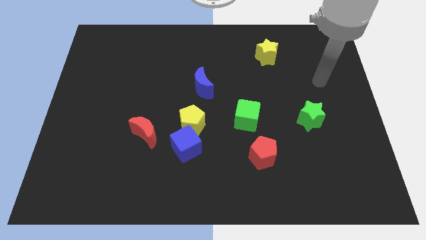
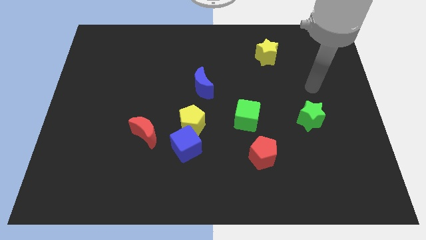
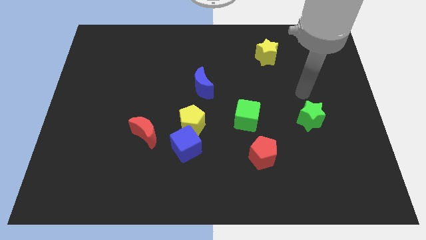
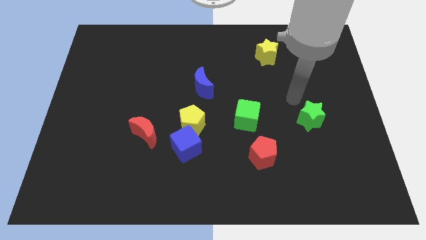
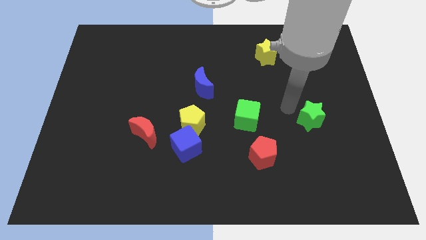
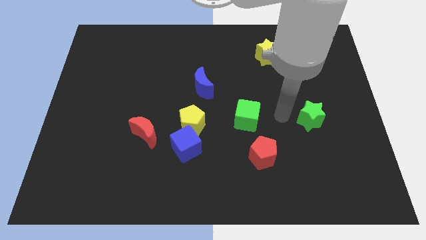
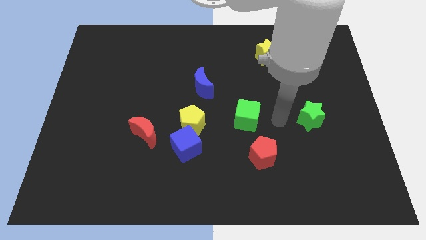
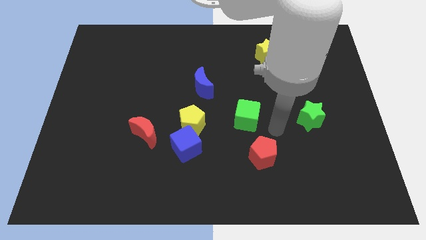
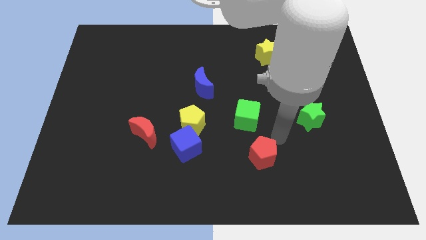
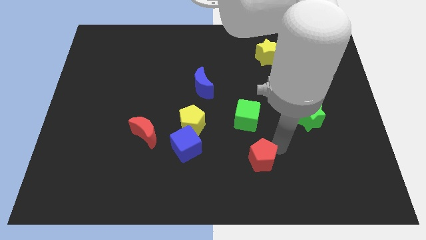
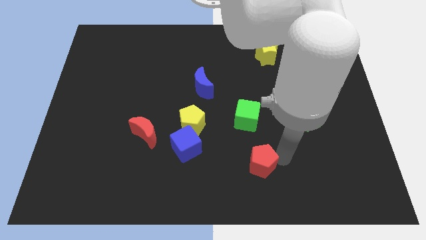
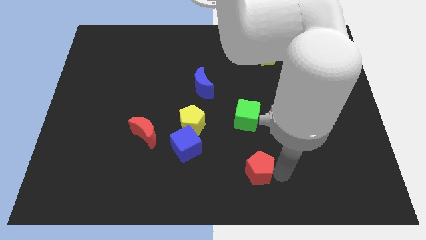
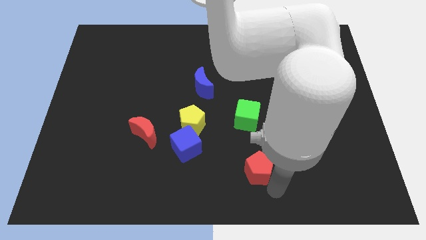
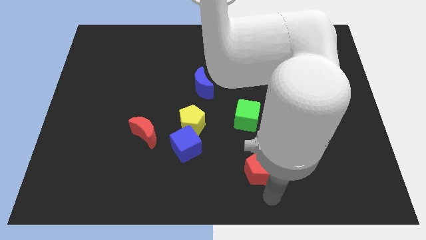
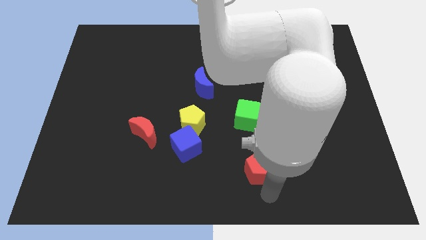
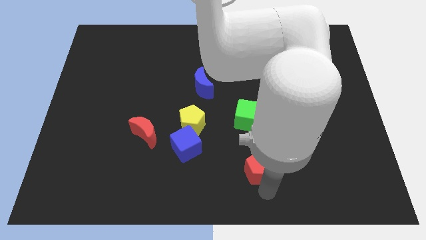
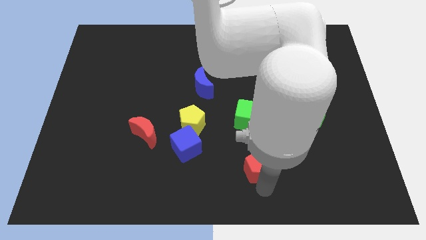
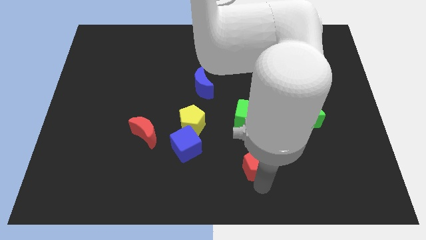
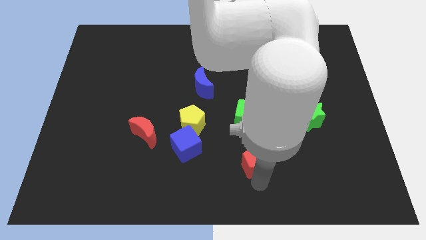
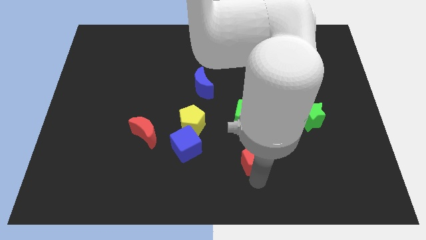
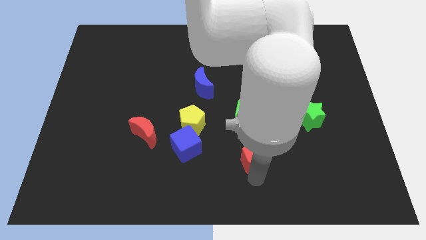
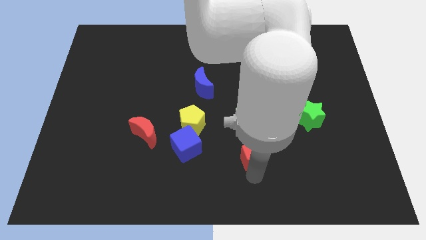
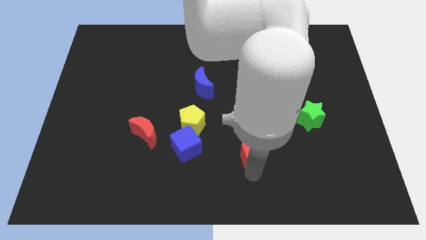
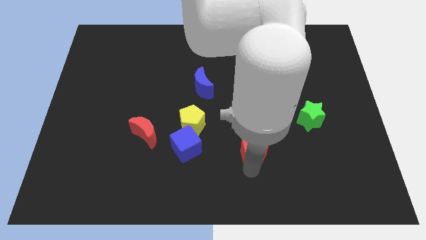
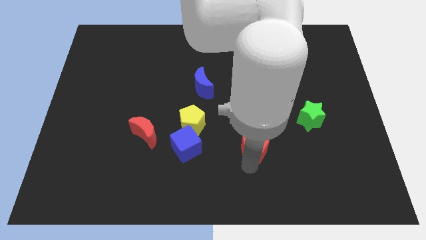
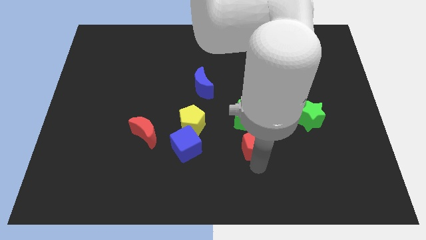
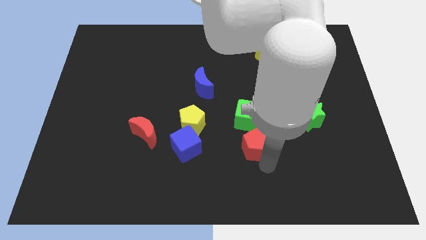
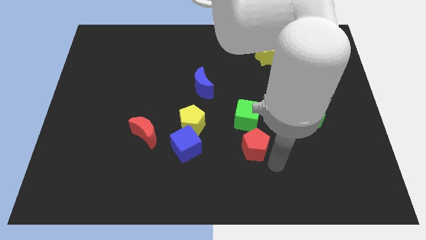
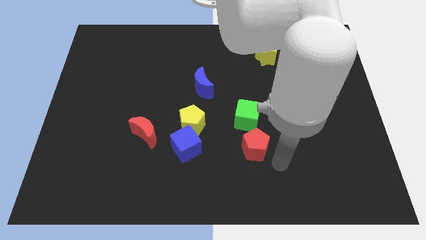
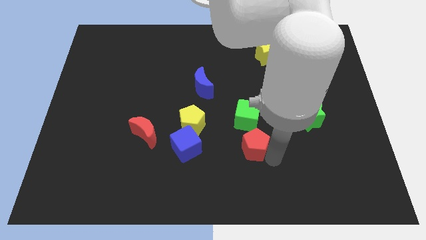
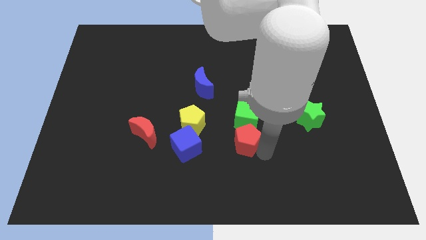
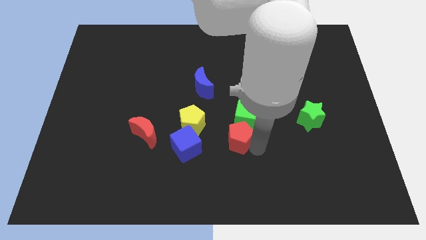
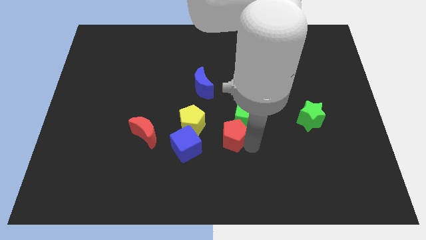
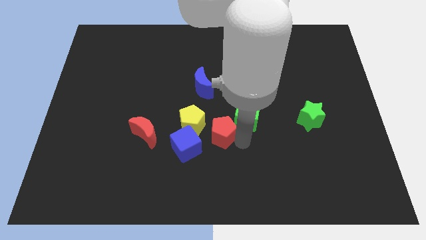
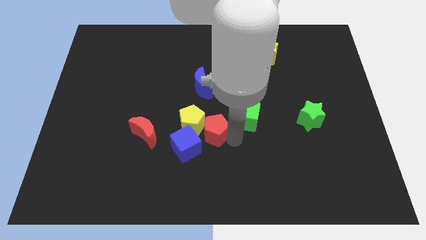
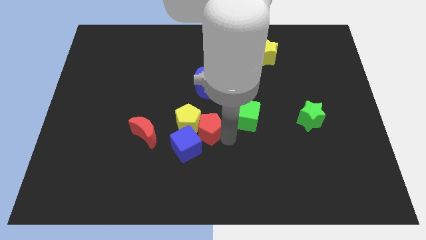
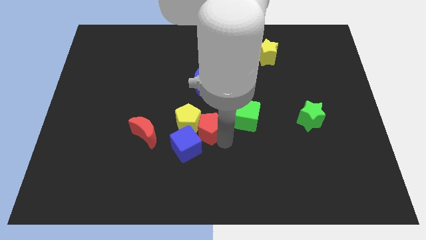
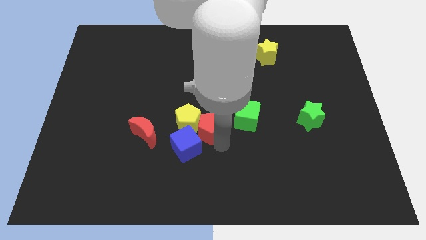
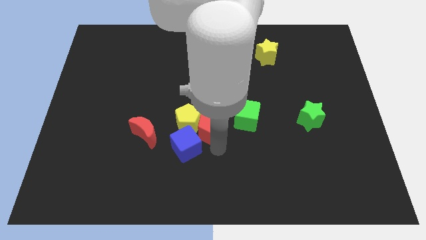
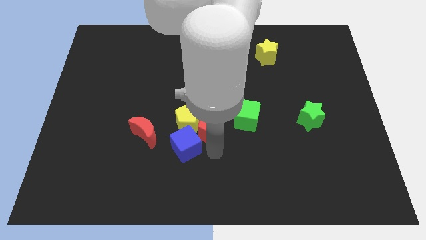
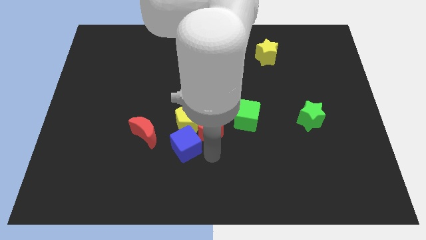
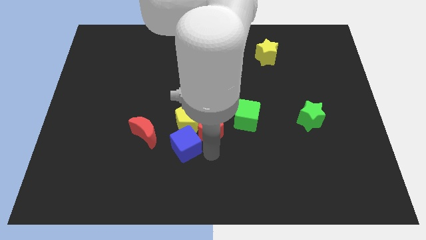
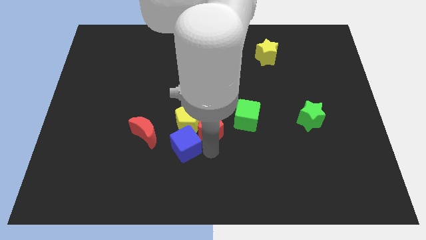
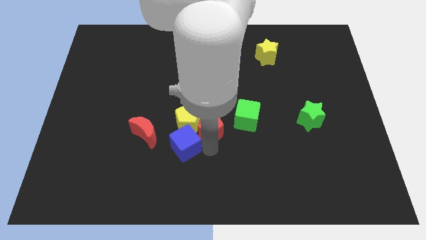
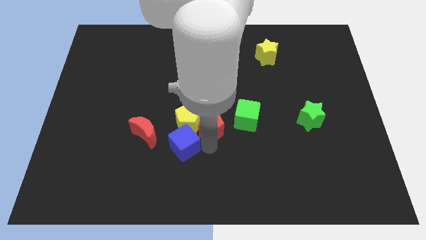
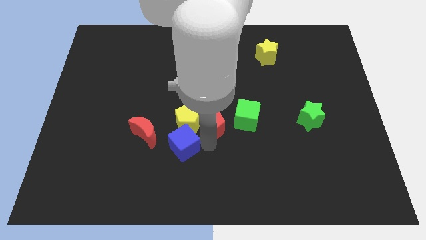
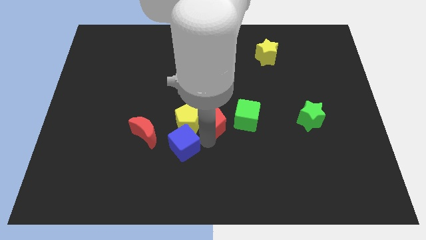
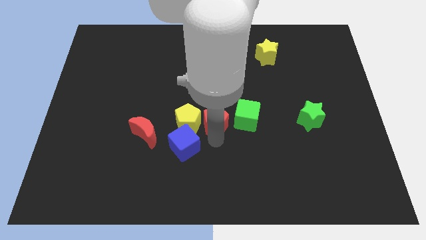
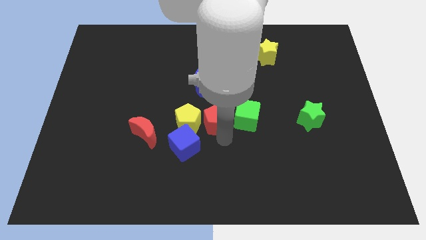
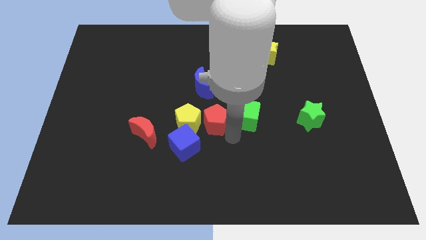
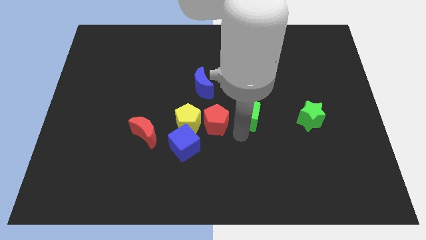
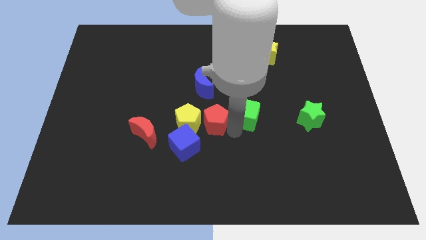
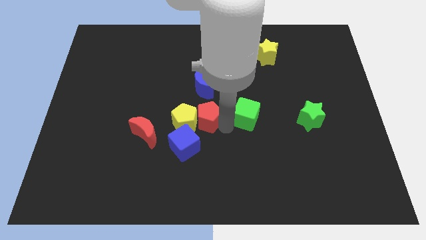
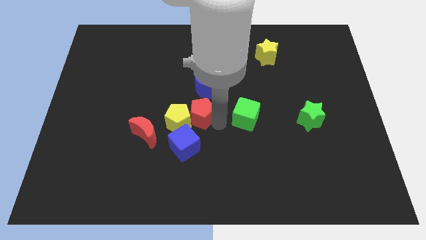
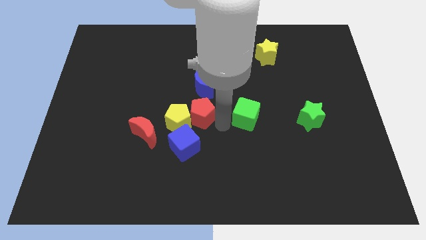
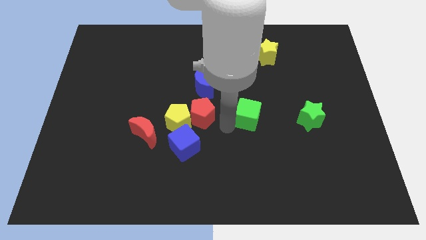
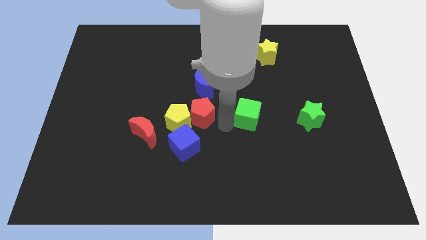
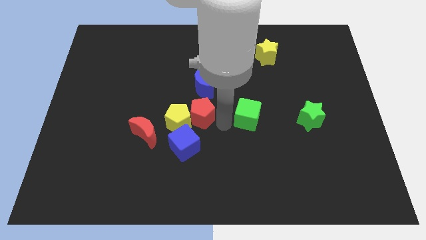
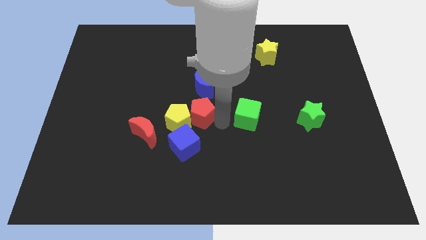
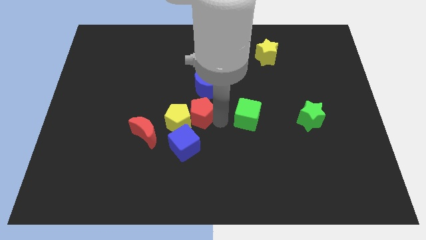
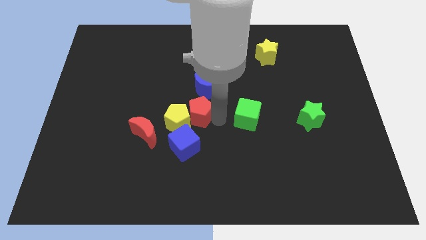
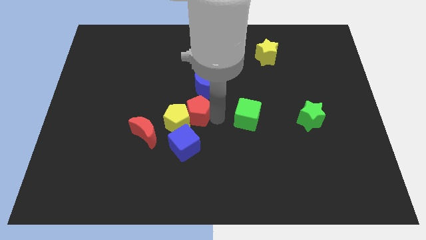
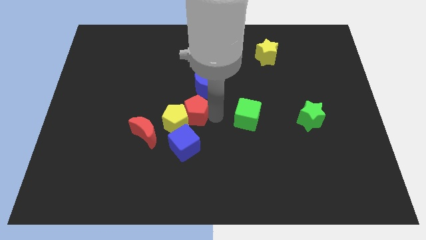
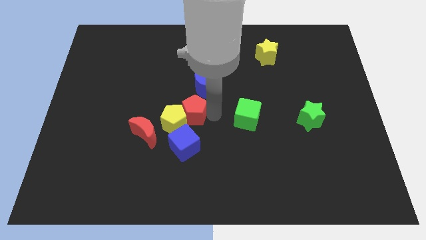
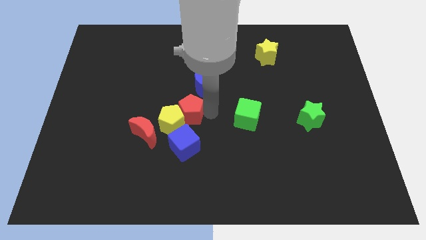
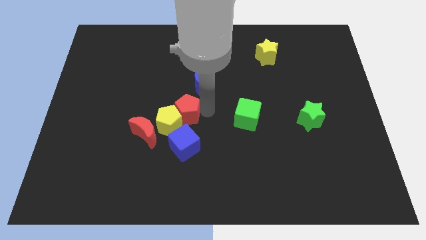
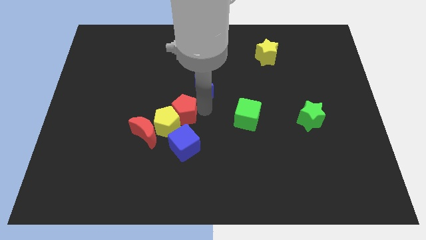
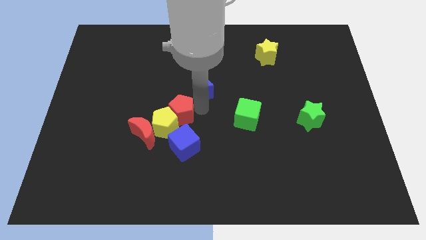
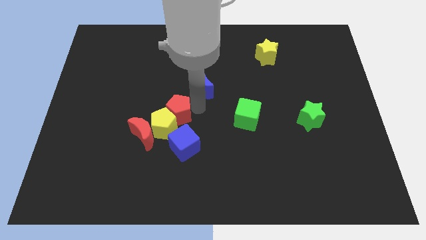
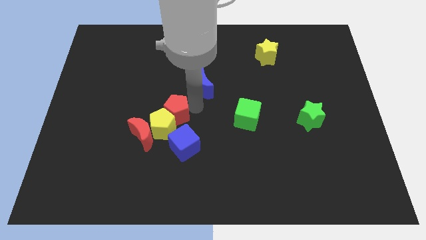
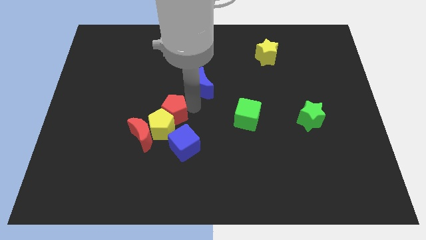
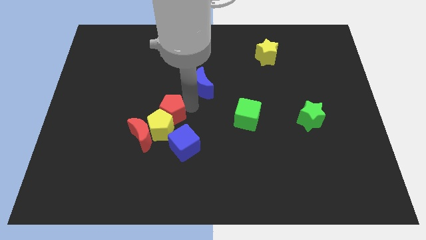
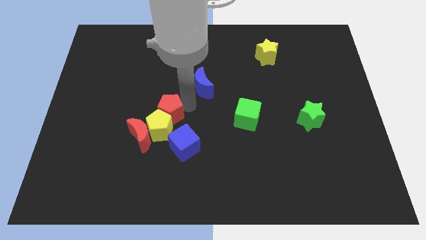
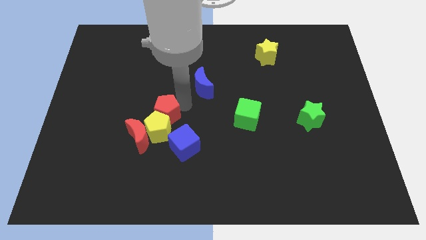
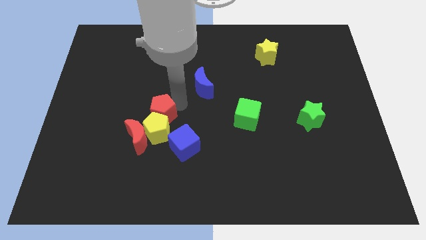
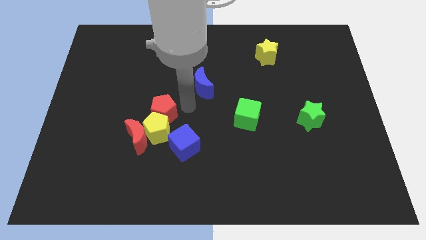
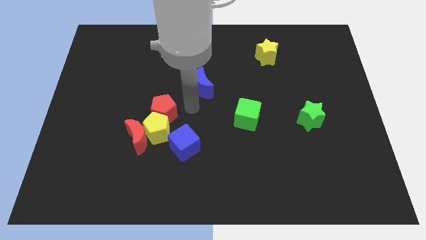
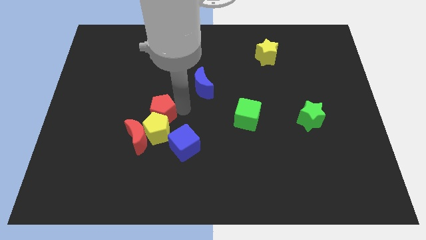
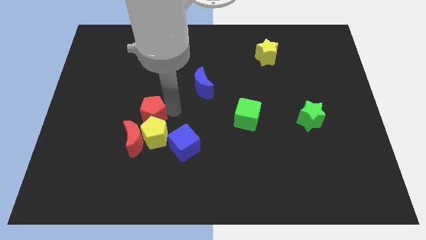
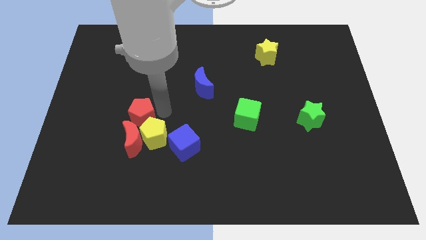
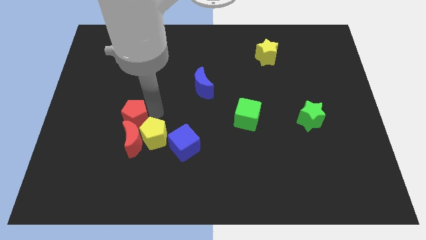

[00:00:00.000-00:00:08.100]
slide the red pentagon diagonally up and to the left of the red moon
